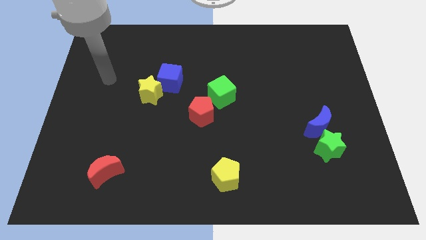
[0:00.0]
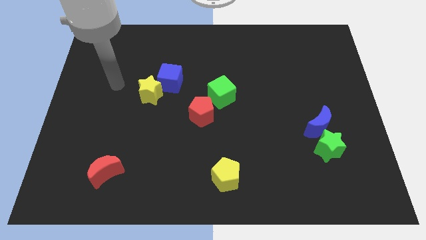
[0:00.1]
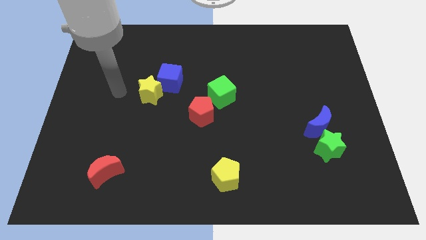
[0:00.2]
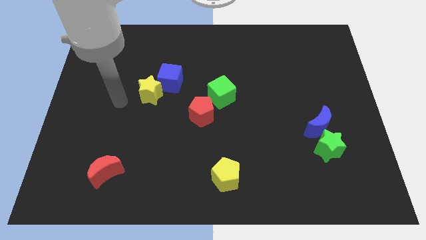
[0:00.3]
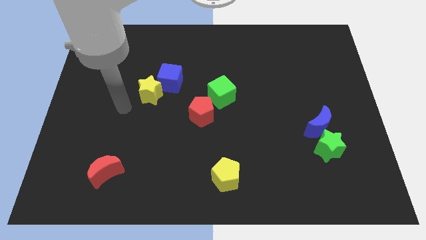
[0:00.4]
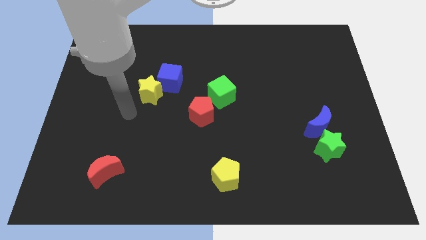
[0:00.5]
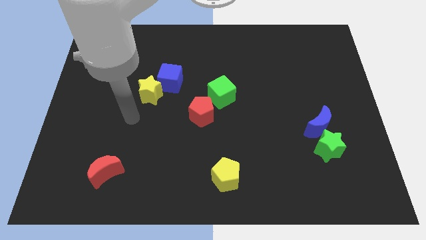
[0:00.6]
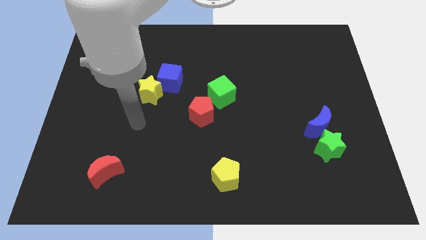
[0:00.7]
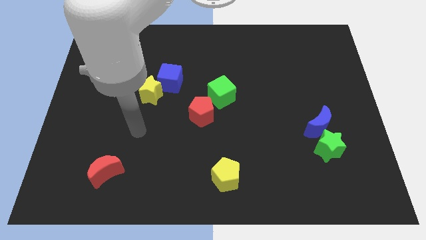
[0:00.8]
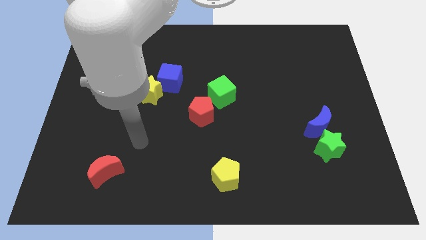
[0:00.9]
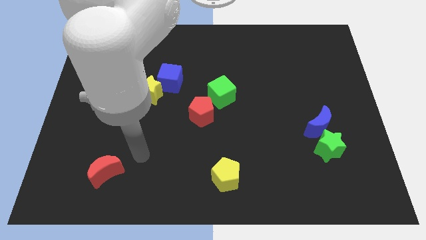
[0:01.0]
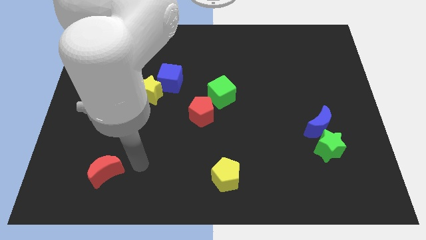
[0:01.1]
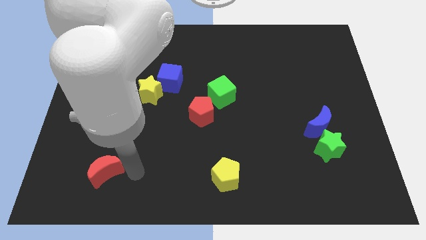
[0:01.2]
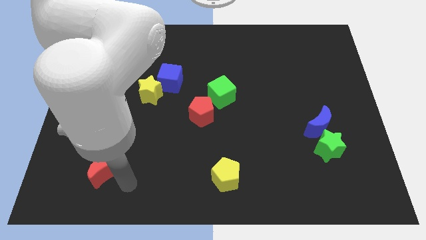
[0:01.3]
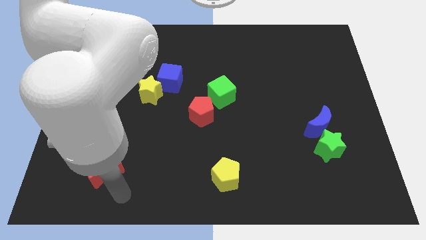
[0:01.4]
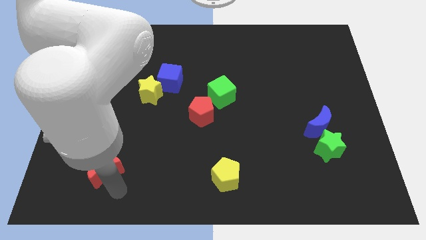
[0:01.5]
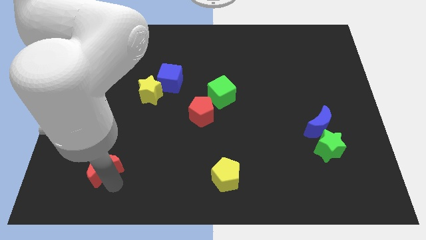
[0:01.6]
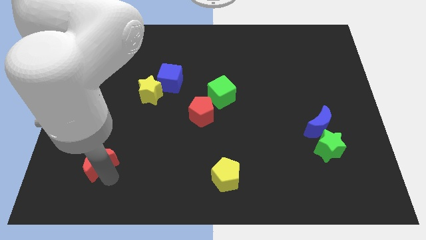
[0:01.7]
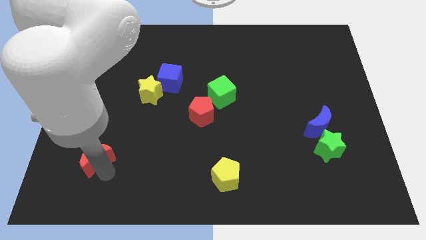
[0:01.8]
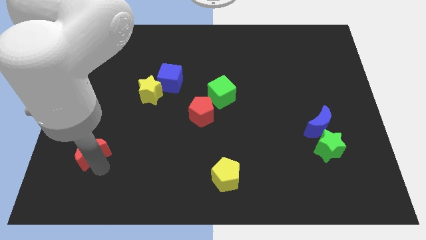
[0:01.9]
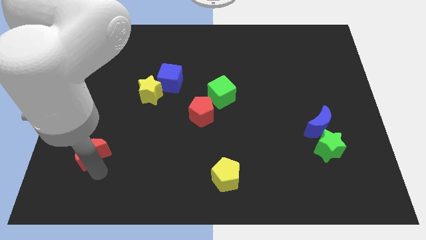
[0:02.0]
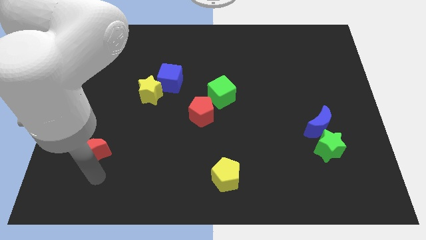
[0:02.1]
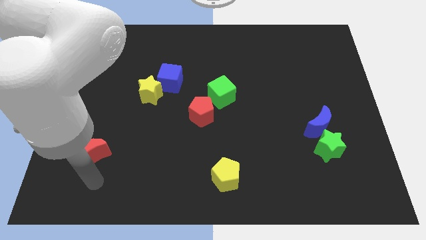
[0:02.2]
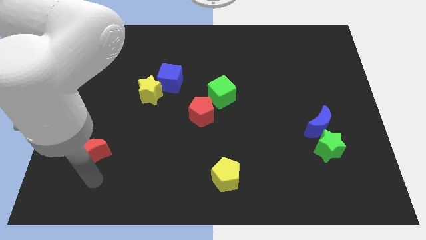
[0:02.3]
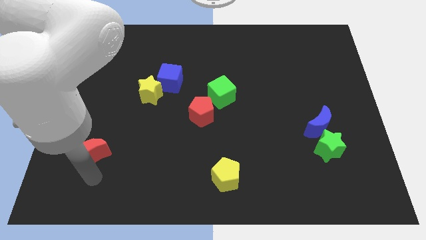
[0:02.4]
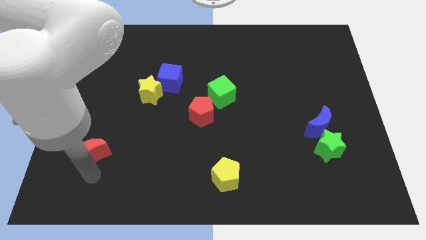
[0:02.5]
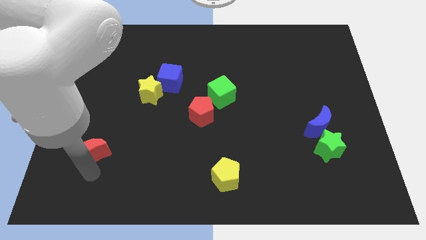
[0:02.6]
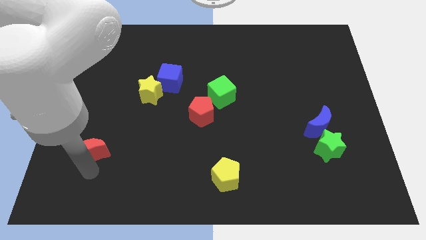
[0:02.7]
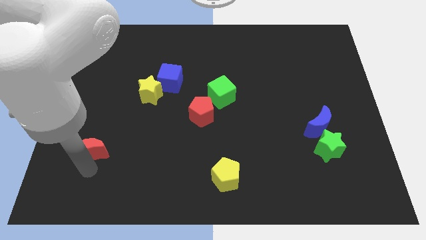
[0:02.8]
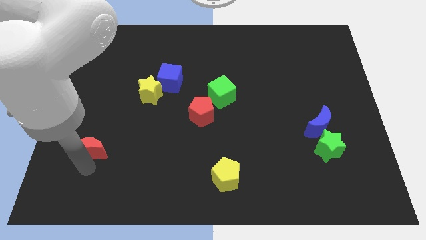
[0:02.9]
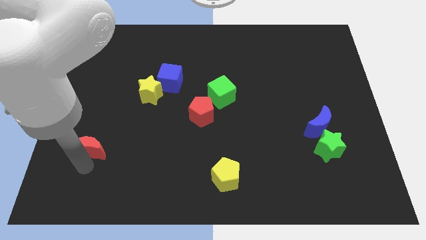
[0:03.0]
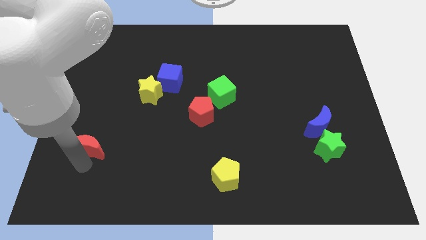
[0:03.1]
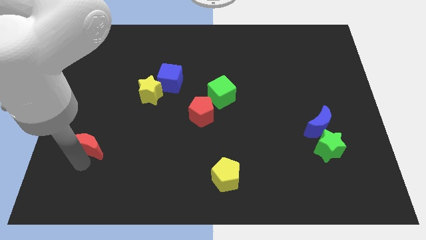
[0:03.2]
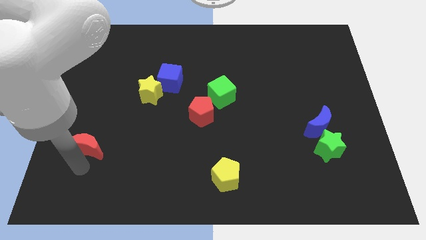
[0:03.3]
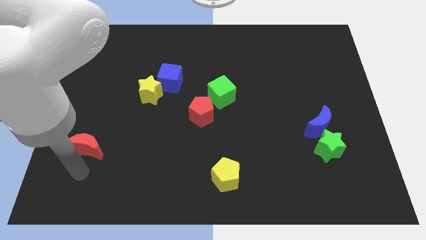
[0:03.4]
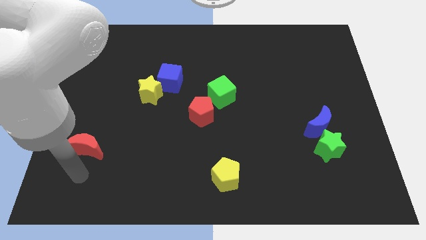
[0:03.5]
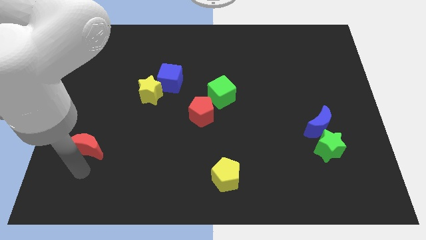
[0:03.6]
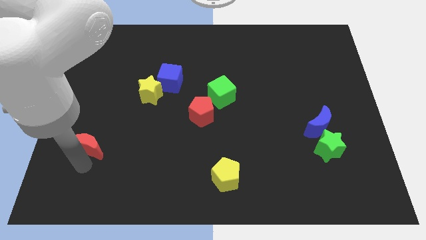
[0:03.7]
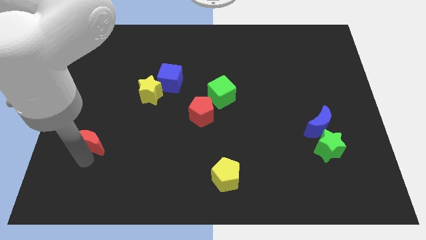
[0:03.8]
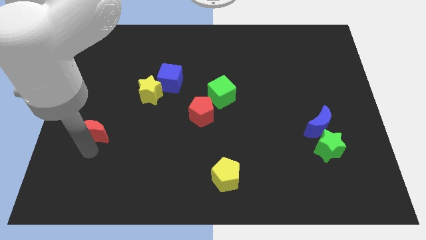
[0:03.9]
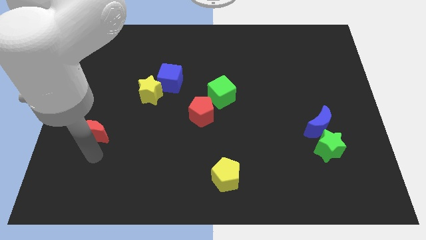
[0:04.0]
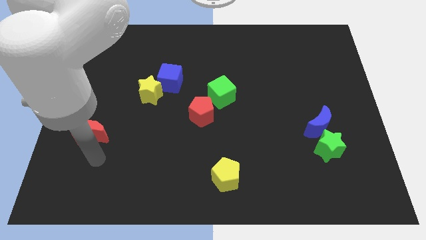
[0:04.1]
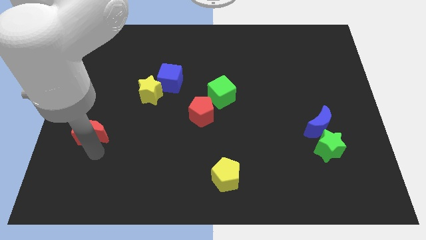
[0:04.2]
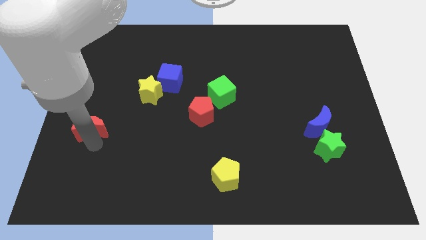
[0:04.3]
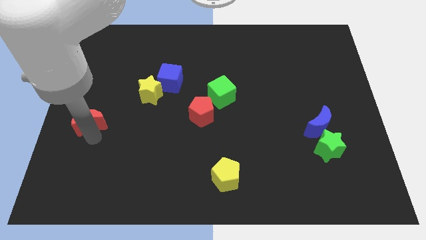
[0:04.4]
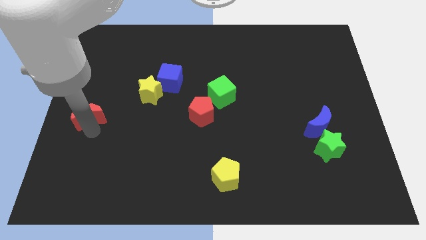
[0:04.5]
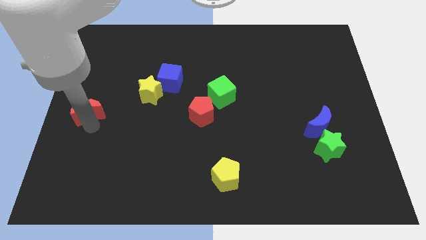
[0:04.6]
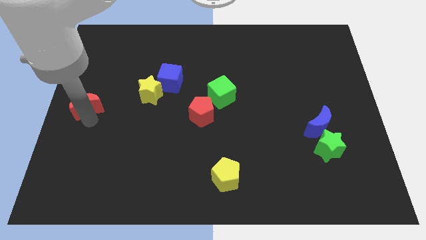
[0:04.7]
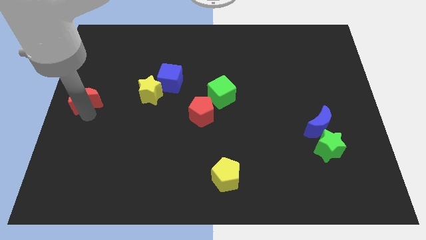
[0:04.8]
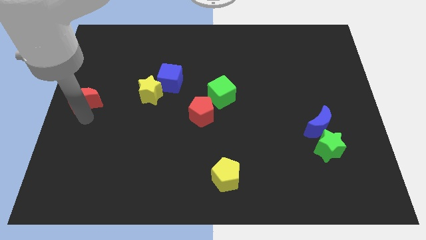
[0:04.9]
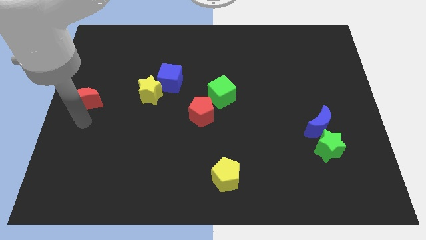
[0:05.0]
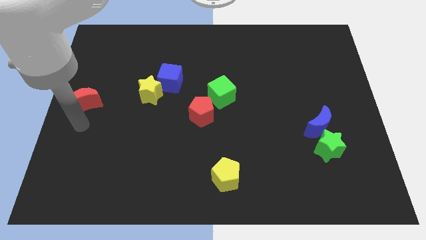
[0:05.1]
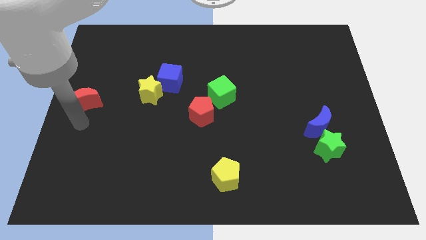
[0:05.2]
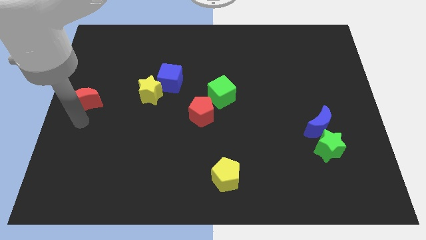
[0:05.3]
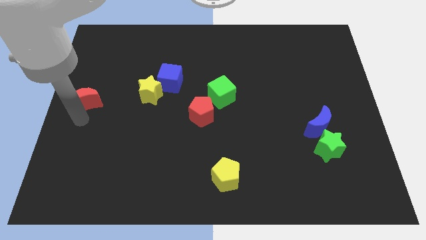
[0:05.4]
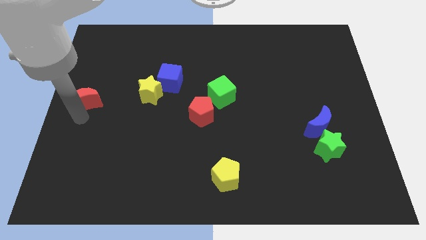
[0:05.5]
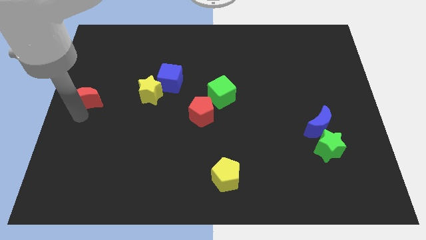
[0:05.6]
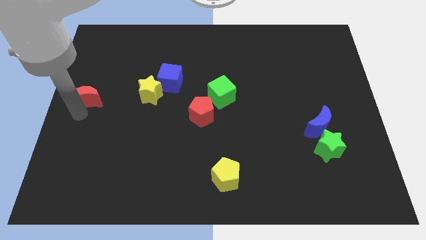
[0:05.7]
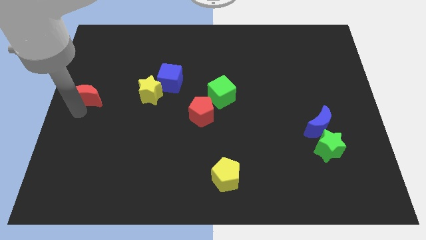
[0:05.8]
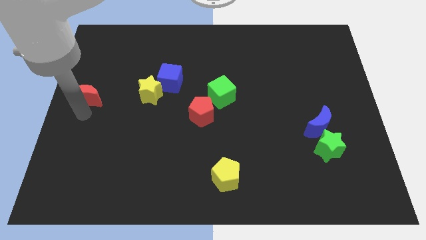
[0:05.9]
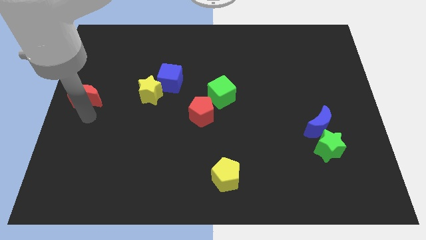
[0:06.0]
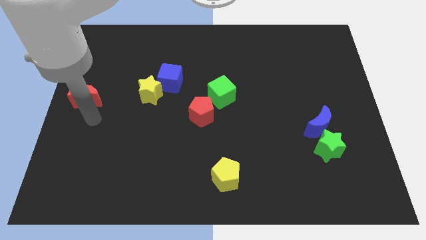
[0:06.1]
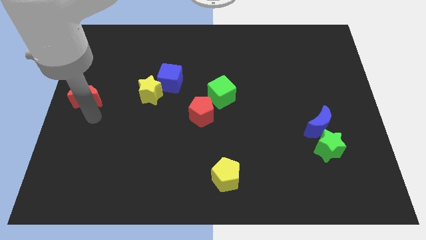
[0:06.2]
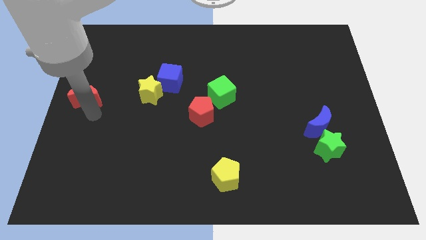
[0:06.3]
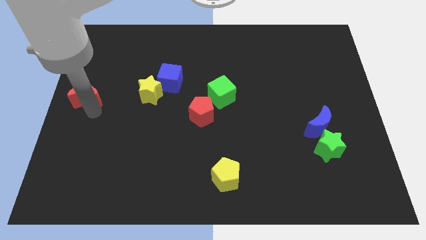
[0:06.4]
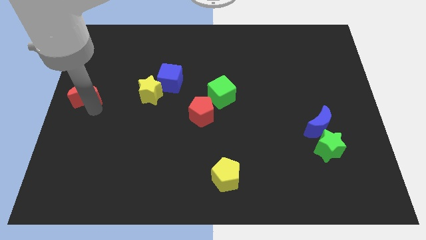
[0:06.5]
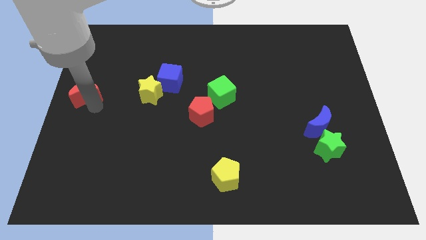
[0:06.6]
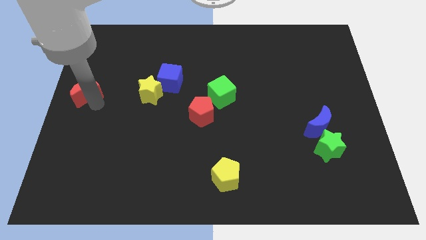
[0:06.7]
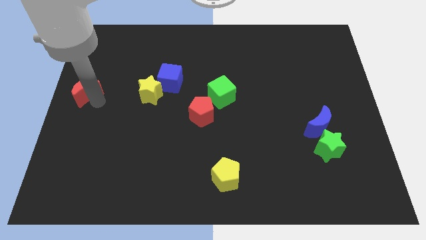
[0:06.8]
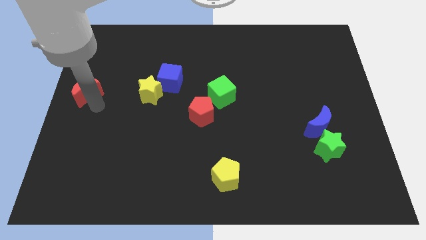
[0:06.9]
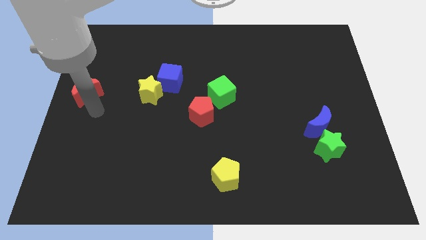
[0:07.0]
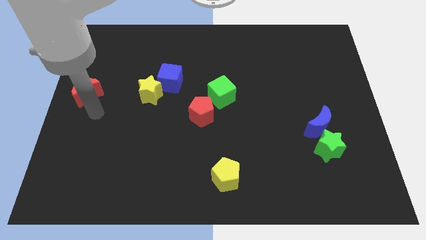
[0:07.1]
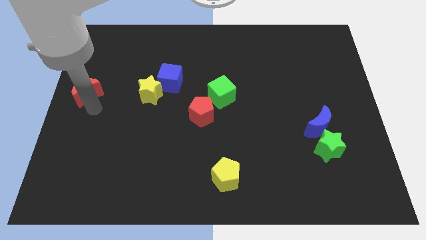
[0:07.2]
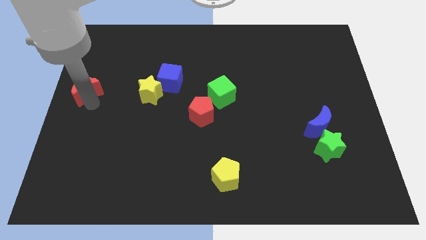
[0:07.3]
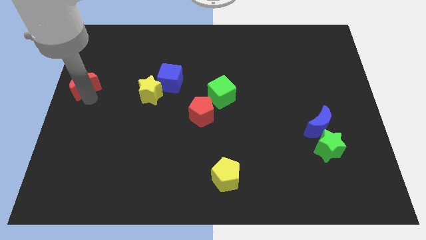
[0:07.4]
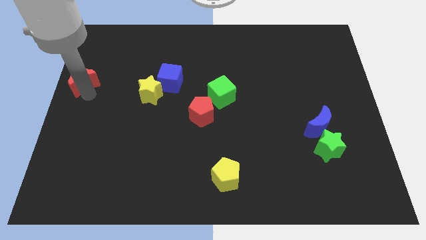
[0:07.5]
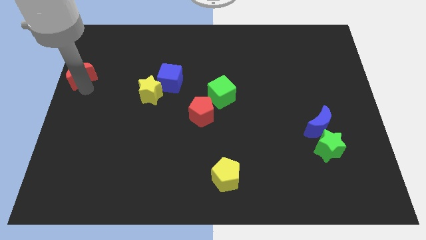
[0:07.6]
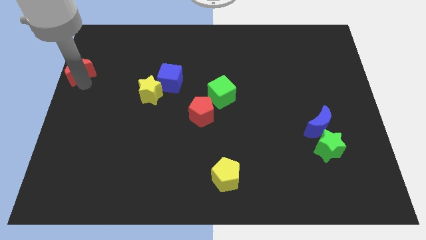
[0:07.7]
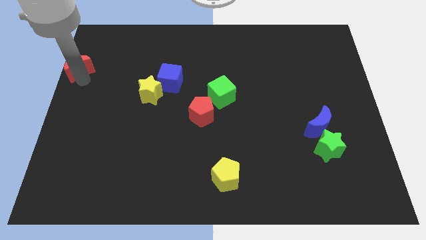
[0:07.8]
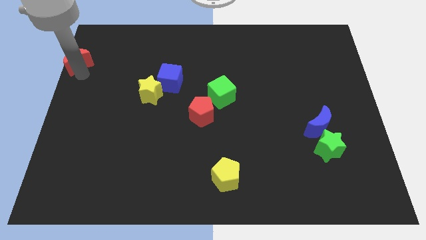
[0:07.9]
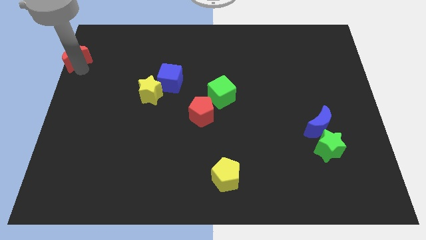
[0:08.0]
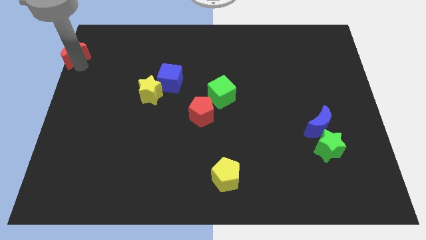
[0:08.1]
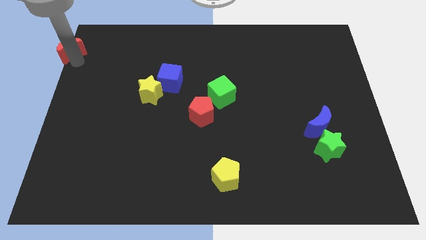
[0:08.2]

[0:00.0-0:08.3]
put the red moon to the upper left corner
